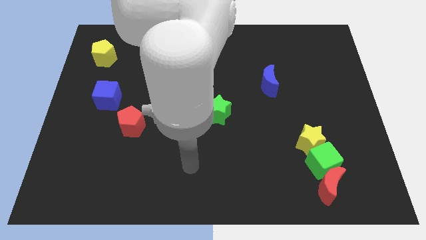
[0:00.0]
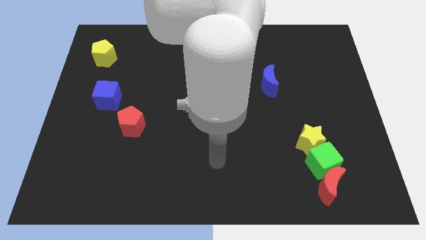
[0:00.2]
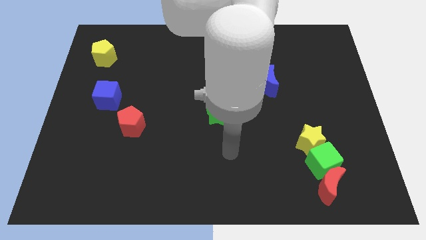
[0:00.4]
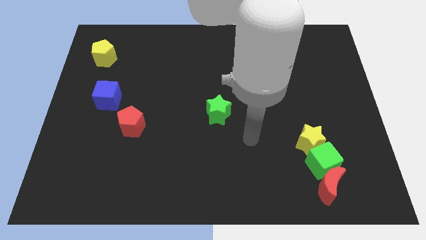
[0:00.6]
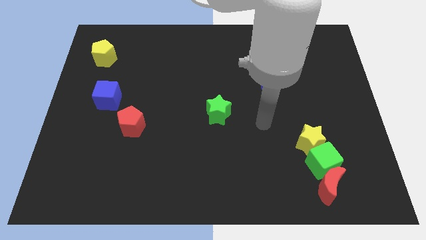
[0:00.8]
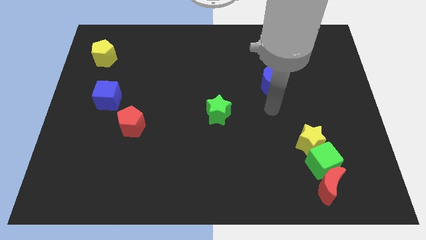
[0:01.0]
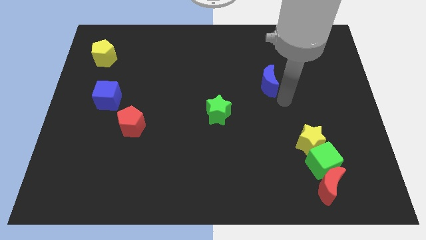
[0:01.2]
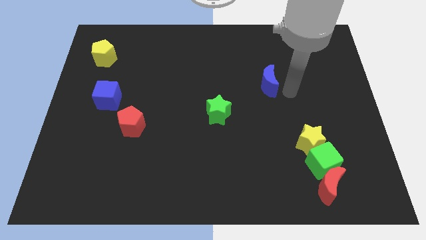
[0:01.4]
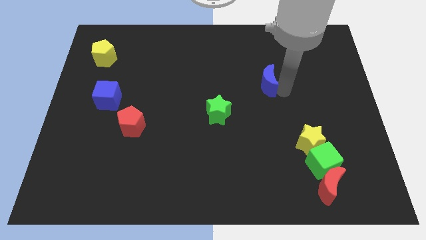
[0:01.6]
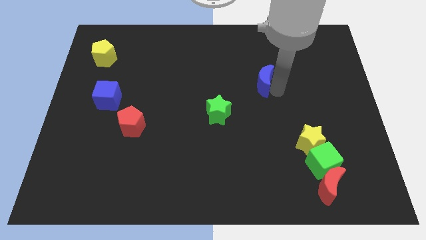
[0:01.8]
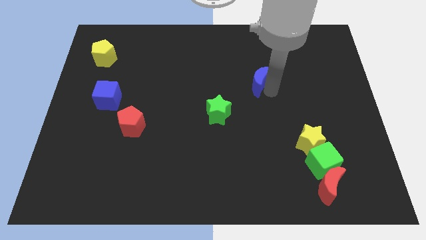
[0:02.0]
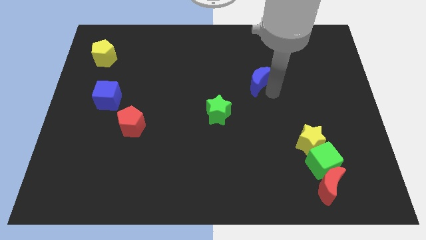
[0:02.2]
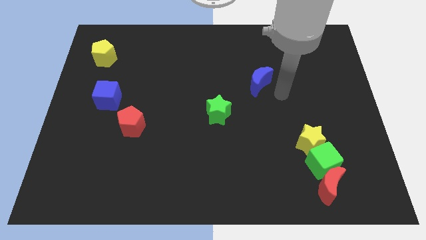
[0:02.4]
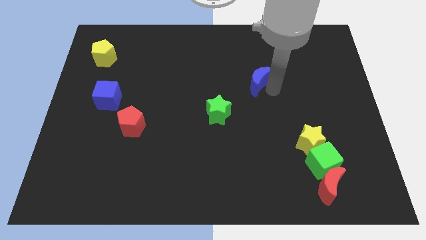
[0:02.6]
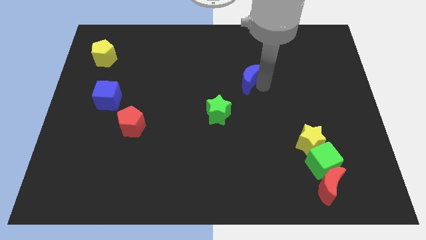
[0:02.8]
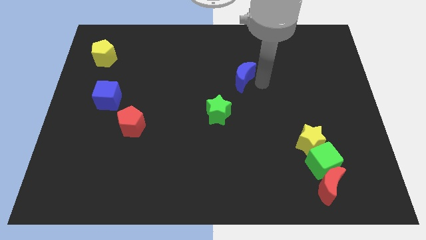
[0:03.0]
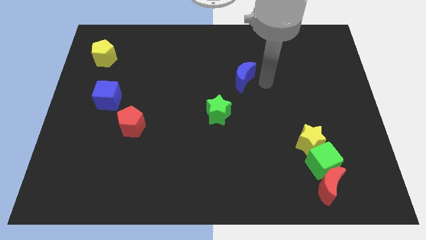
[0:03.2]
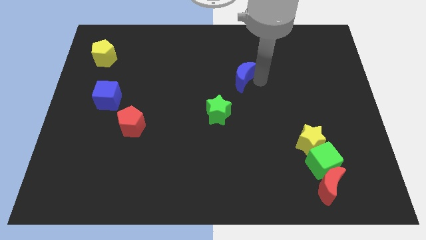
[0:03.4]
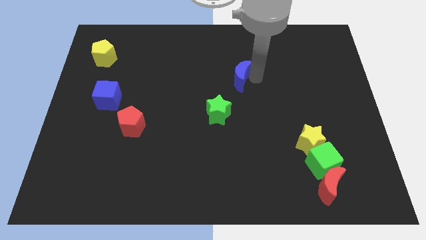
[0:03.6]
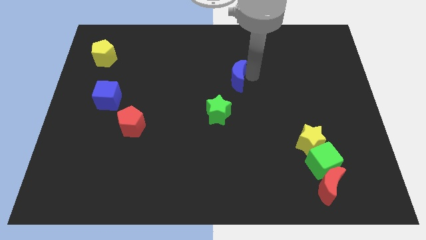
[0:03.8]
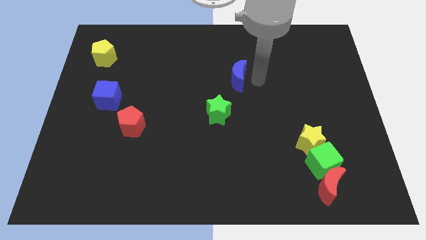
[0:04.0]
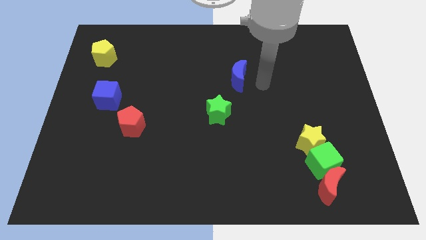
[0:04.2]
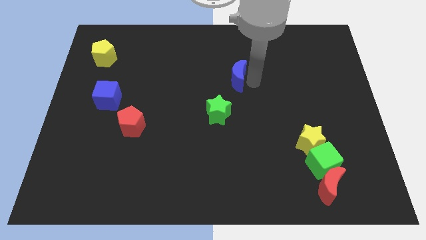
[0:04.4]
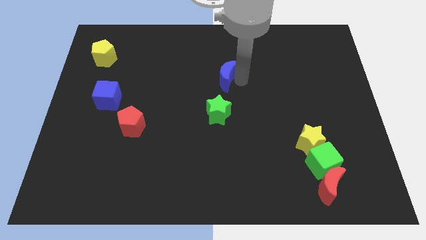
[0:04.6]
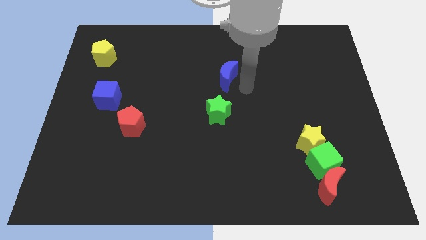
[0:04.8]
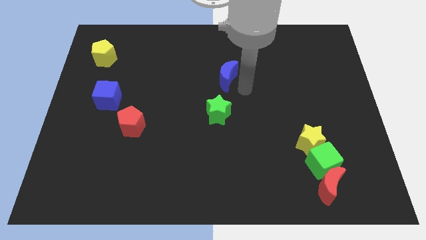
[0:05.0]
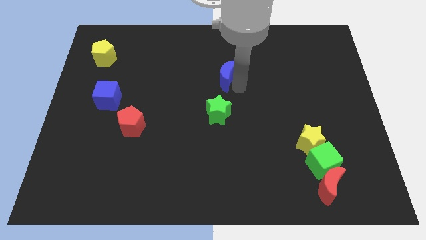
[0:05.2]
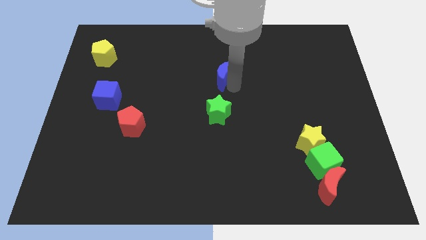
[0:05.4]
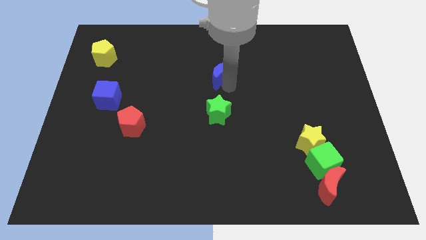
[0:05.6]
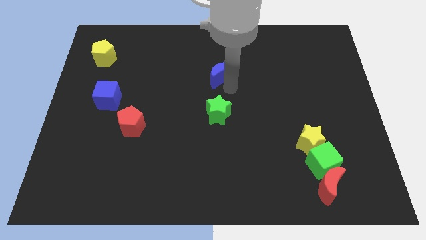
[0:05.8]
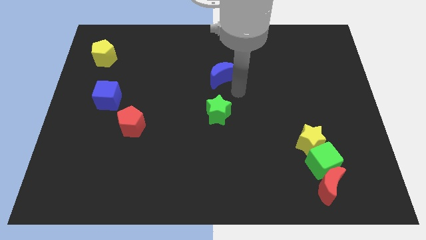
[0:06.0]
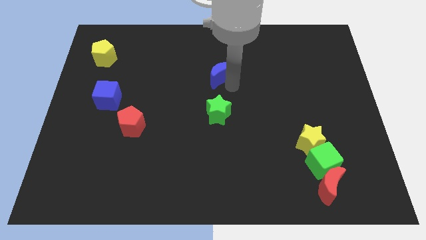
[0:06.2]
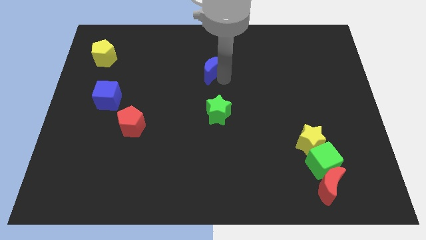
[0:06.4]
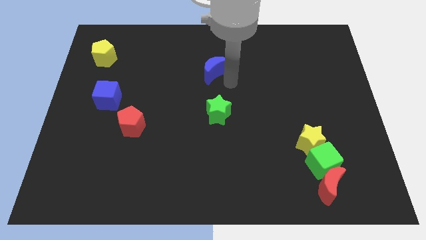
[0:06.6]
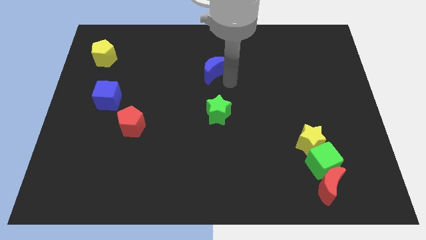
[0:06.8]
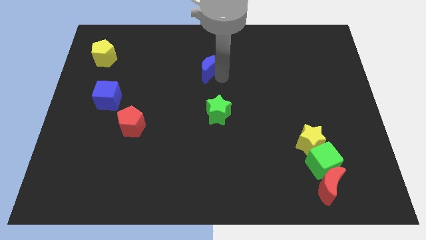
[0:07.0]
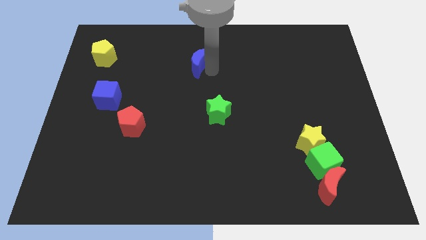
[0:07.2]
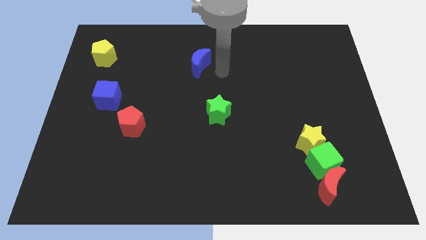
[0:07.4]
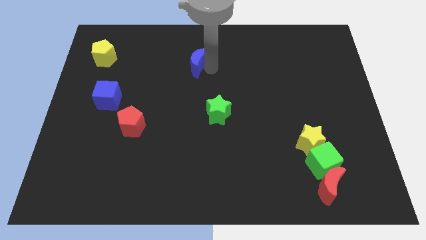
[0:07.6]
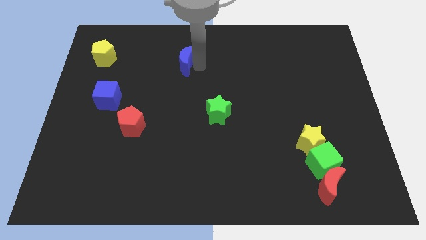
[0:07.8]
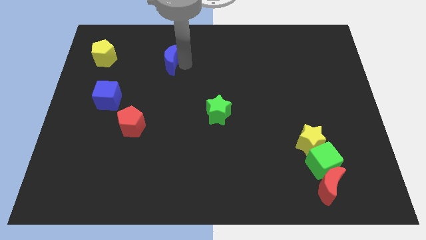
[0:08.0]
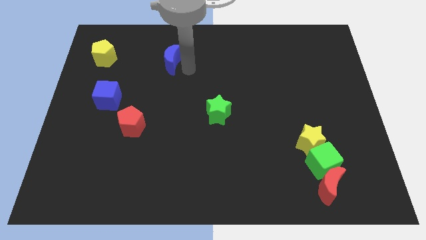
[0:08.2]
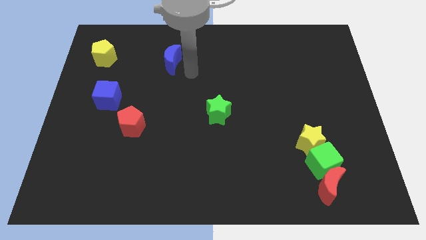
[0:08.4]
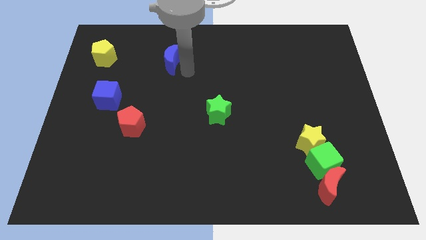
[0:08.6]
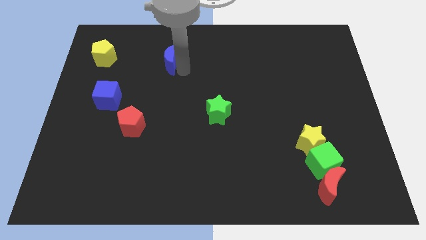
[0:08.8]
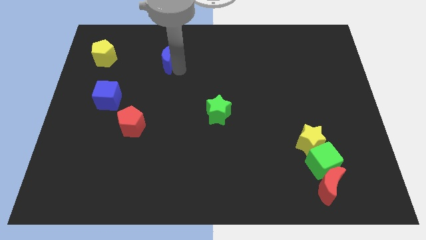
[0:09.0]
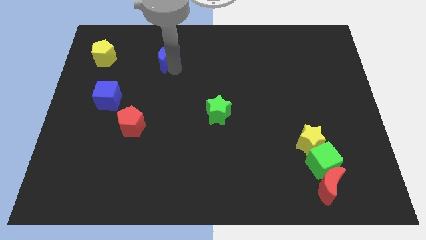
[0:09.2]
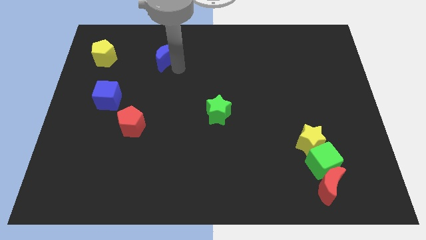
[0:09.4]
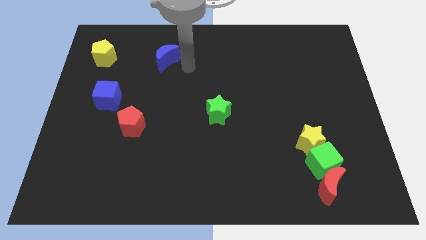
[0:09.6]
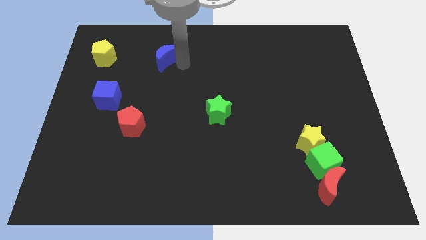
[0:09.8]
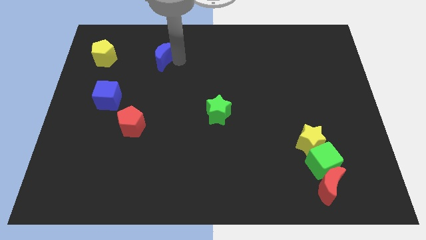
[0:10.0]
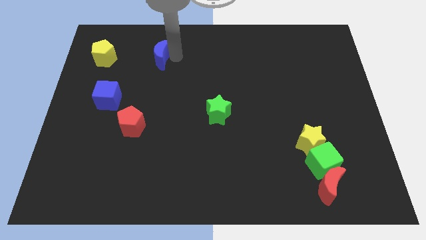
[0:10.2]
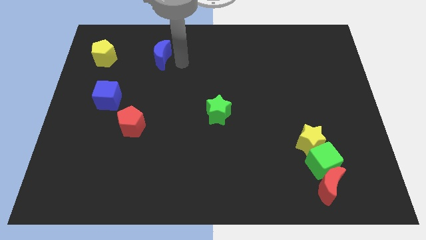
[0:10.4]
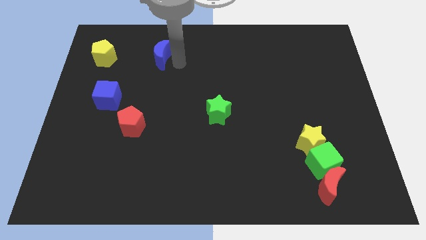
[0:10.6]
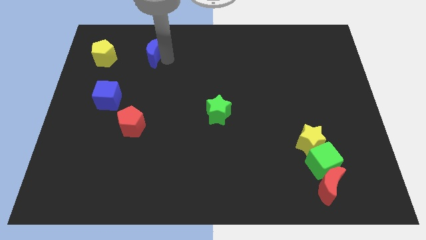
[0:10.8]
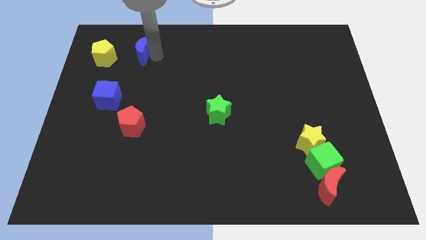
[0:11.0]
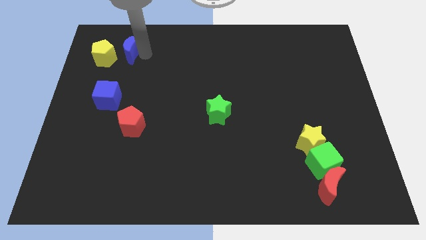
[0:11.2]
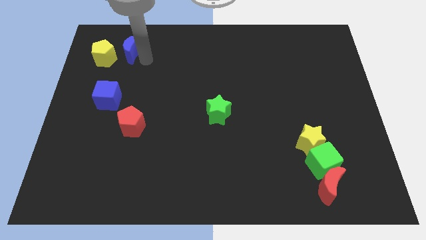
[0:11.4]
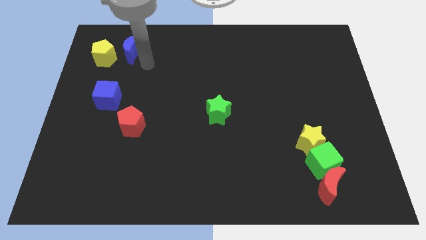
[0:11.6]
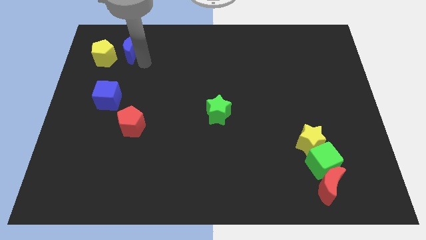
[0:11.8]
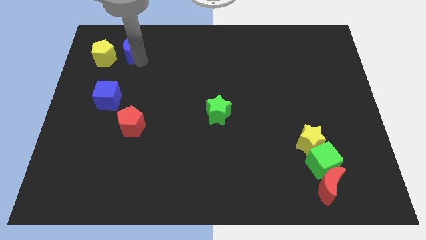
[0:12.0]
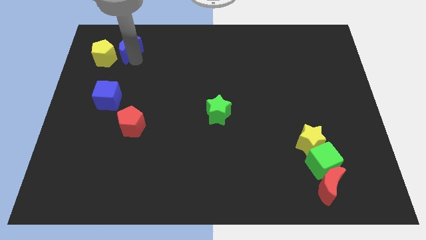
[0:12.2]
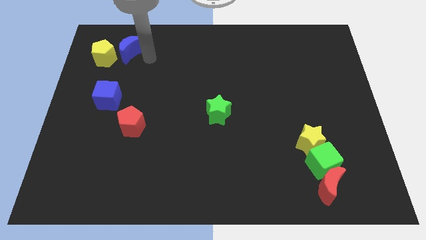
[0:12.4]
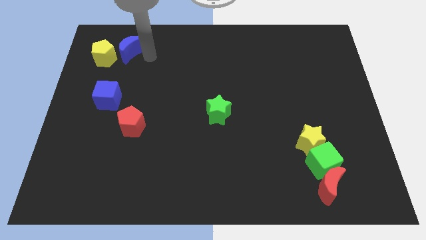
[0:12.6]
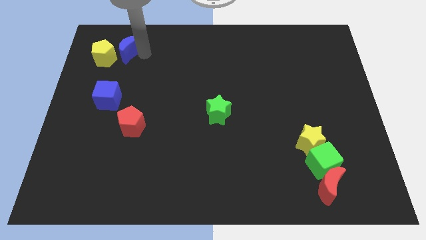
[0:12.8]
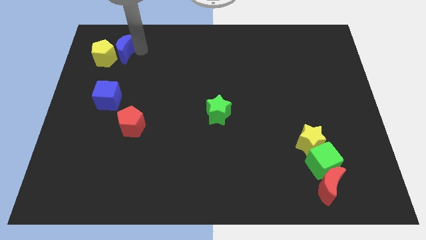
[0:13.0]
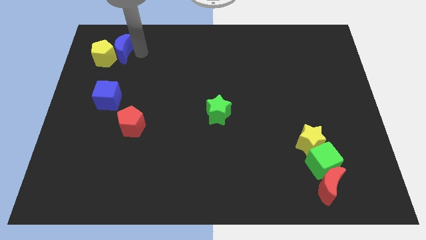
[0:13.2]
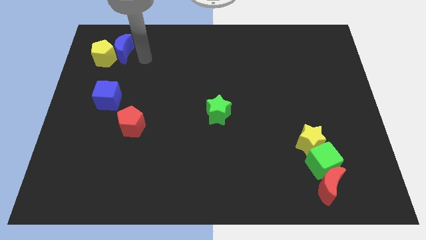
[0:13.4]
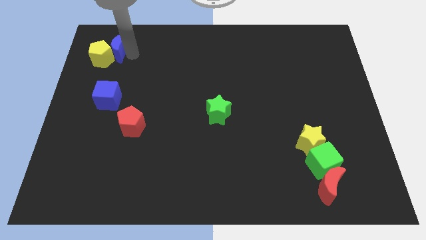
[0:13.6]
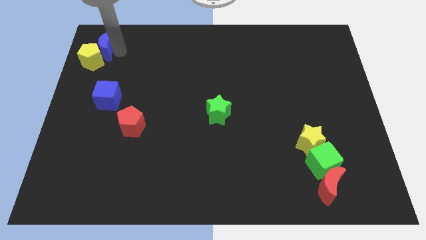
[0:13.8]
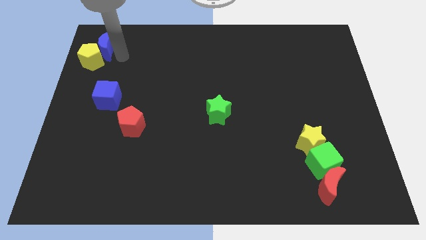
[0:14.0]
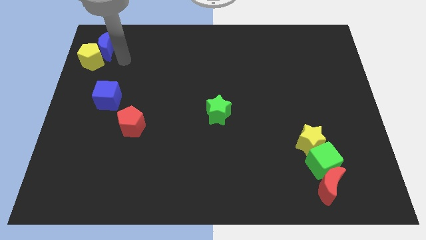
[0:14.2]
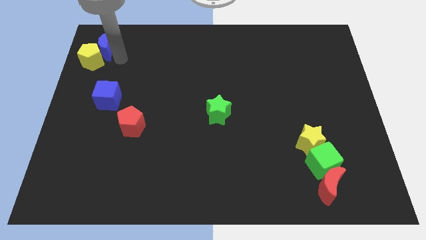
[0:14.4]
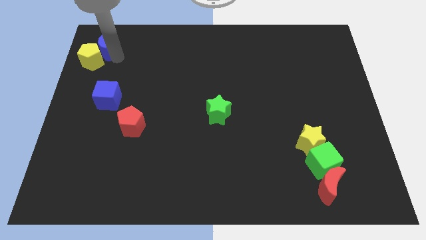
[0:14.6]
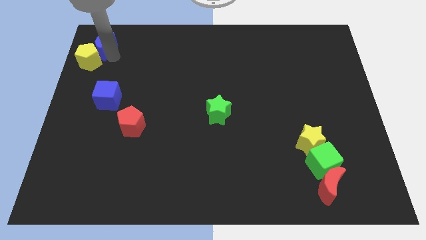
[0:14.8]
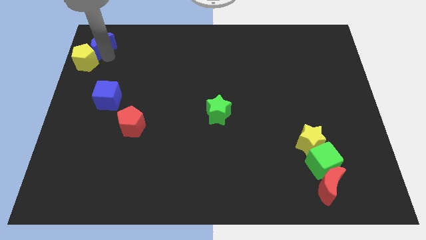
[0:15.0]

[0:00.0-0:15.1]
push the blue moon to the top left of the board
